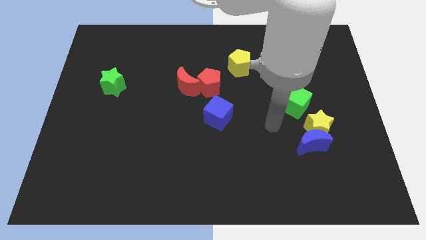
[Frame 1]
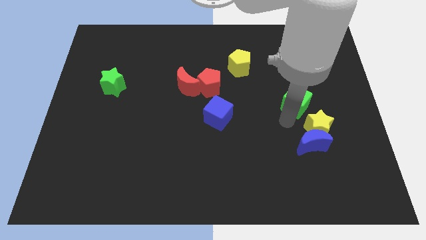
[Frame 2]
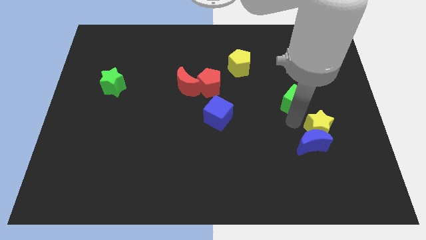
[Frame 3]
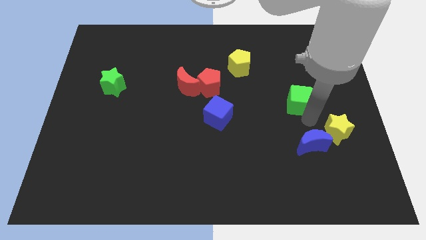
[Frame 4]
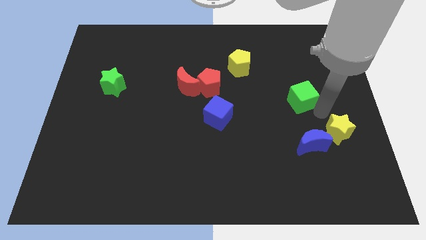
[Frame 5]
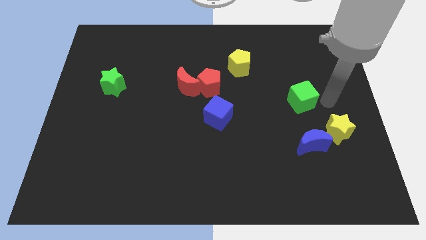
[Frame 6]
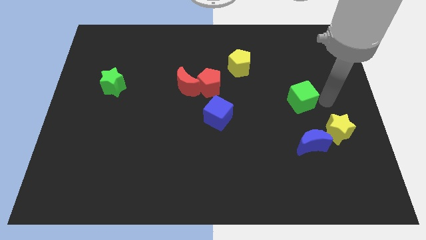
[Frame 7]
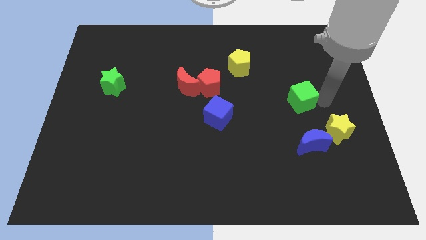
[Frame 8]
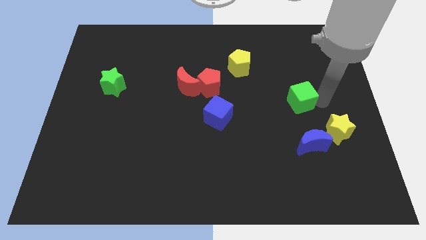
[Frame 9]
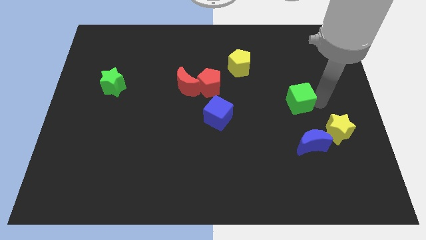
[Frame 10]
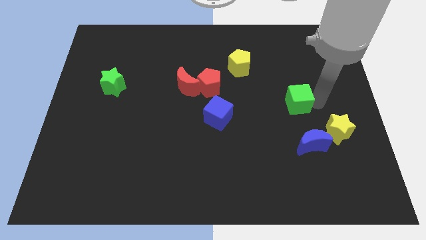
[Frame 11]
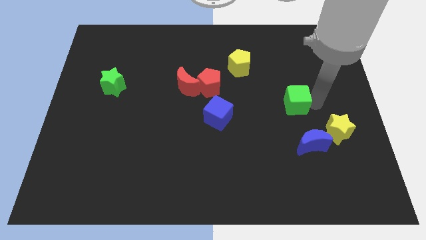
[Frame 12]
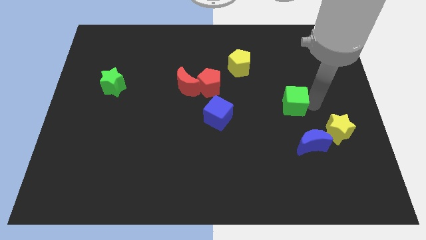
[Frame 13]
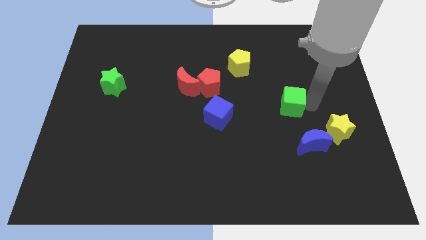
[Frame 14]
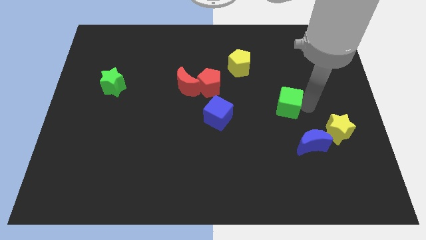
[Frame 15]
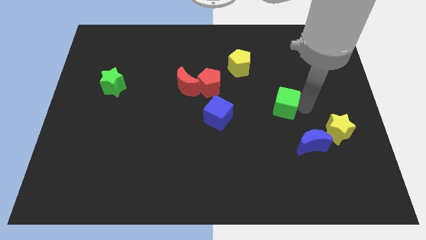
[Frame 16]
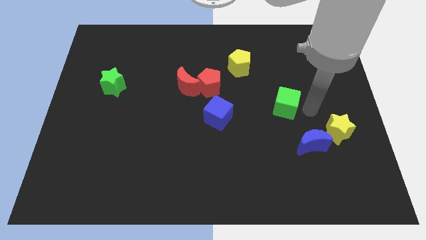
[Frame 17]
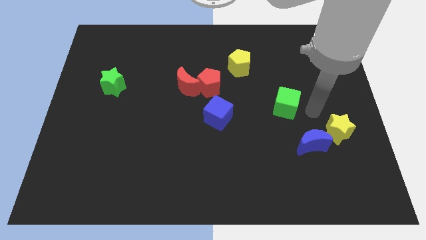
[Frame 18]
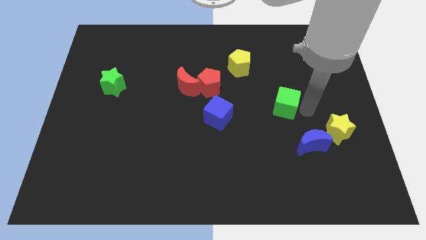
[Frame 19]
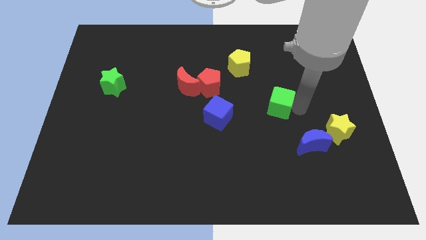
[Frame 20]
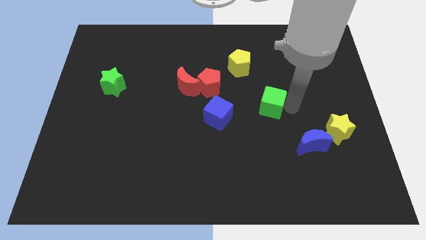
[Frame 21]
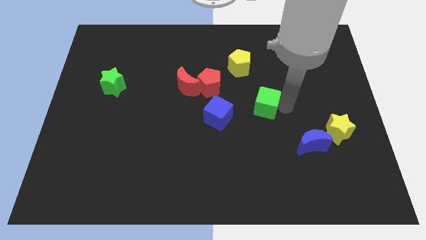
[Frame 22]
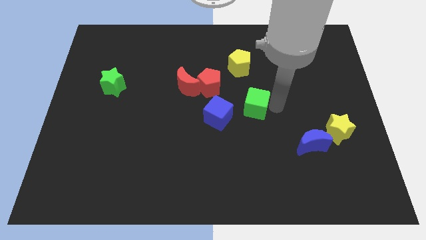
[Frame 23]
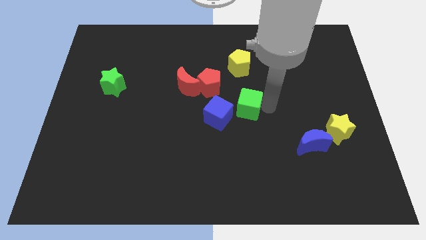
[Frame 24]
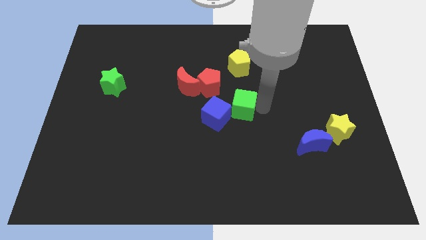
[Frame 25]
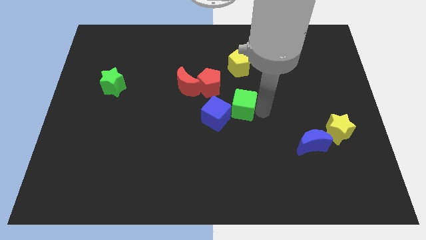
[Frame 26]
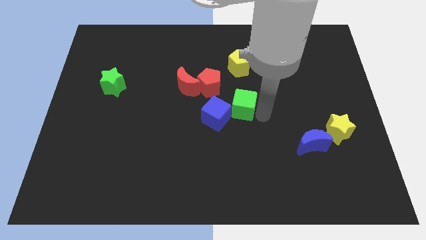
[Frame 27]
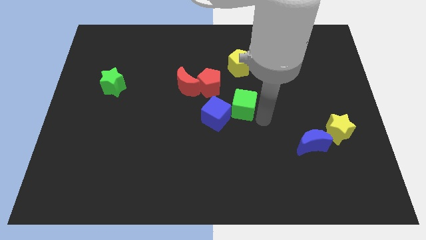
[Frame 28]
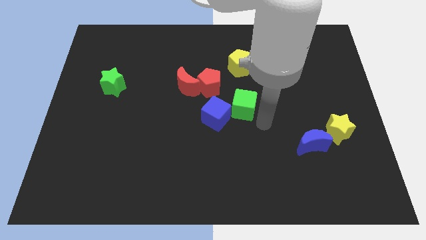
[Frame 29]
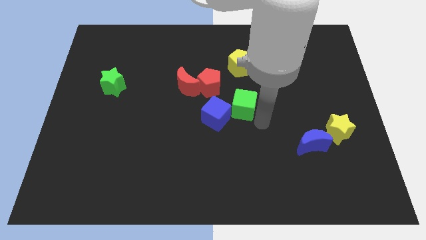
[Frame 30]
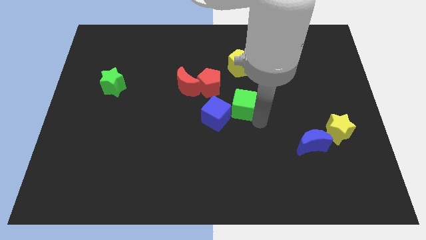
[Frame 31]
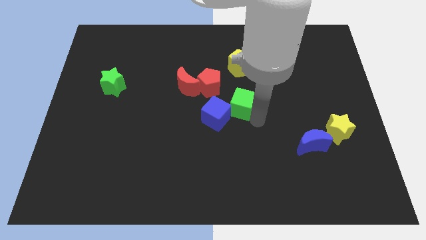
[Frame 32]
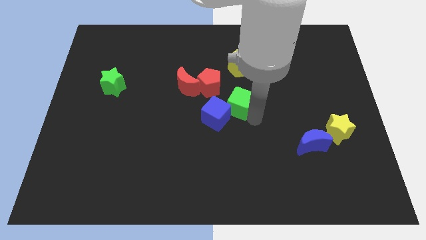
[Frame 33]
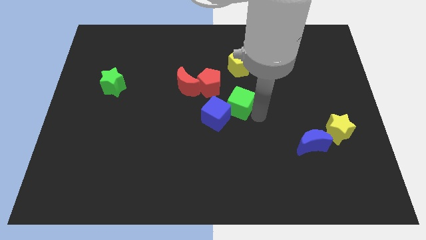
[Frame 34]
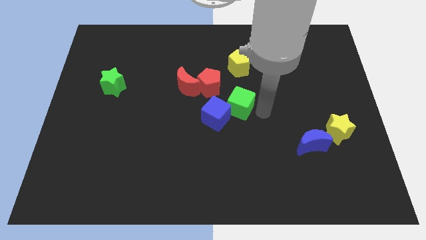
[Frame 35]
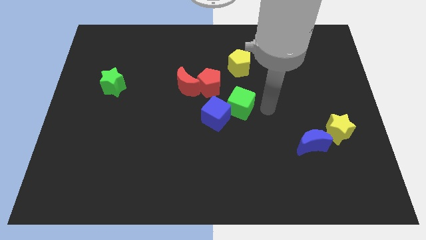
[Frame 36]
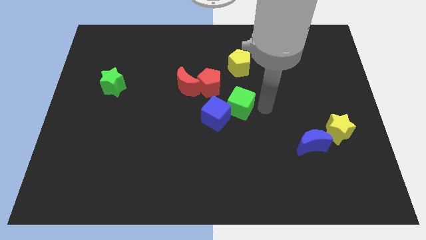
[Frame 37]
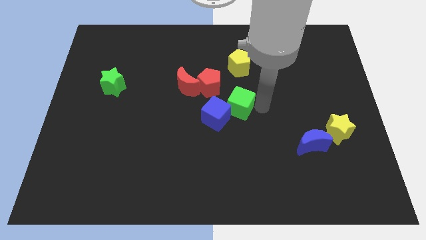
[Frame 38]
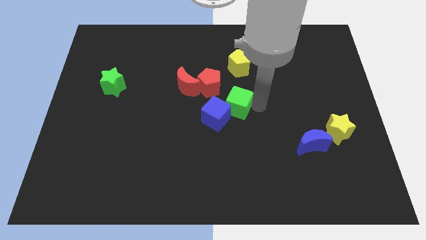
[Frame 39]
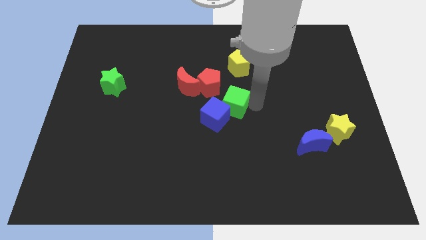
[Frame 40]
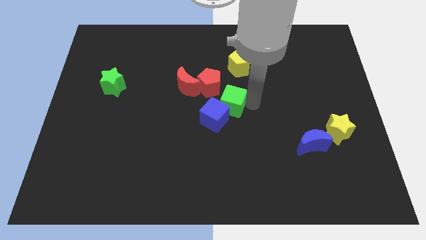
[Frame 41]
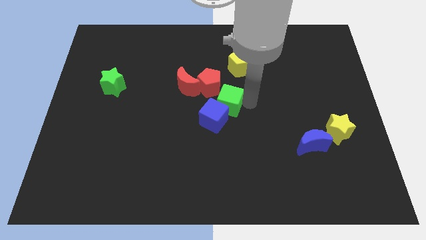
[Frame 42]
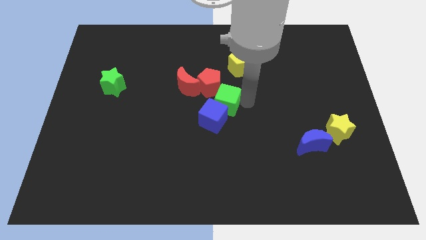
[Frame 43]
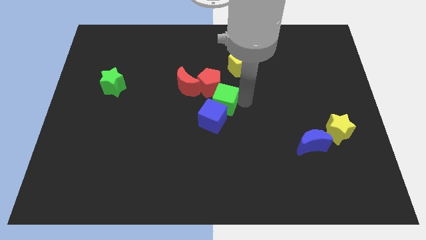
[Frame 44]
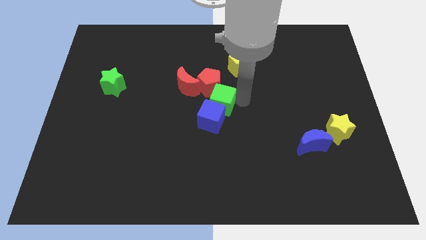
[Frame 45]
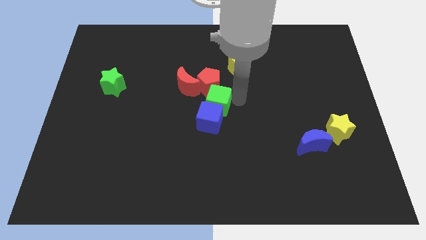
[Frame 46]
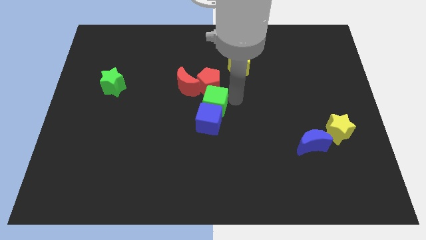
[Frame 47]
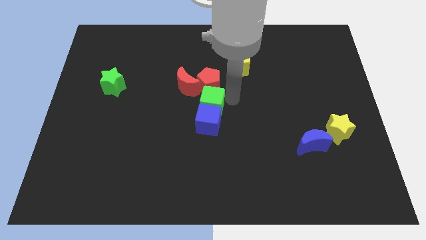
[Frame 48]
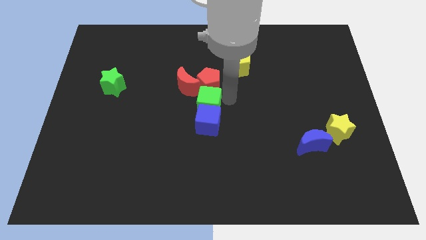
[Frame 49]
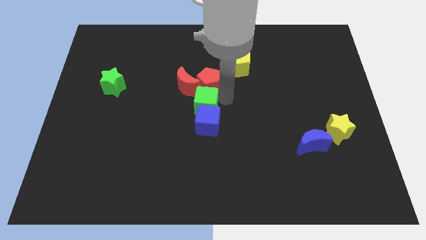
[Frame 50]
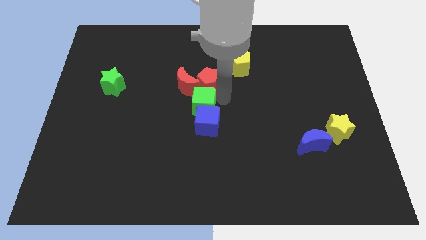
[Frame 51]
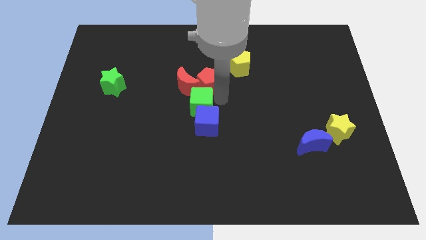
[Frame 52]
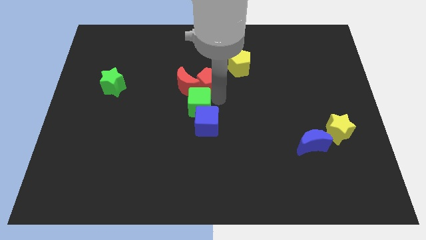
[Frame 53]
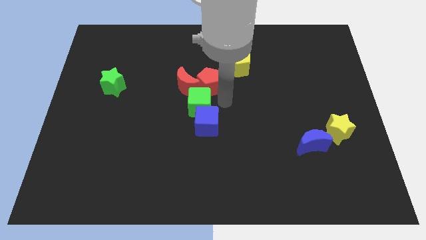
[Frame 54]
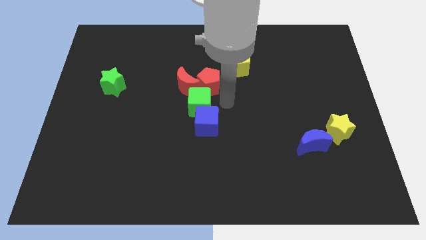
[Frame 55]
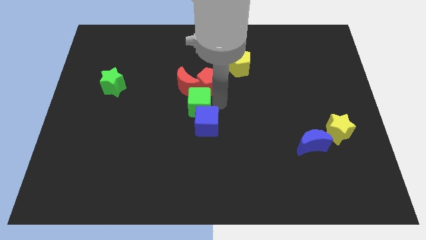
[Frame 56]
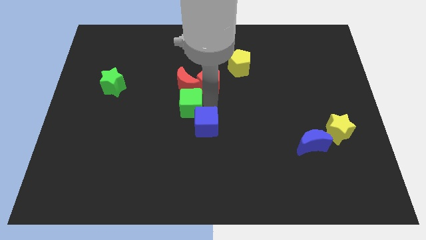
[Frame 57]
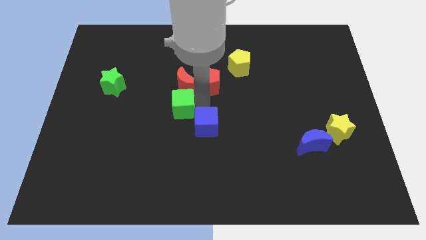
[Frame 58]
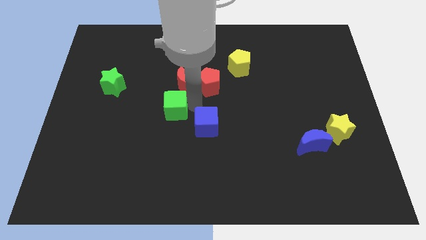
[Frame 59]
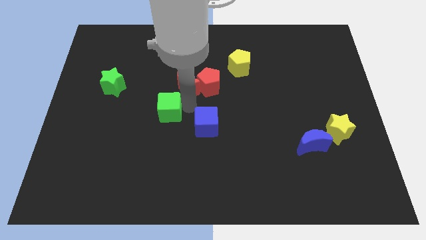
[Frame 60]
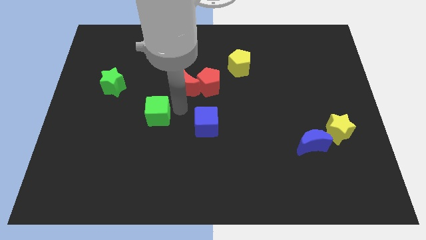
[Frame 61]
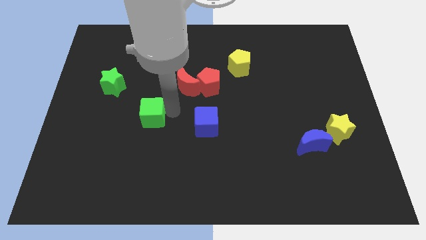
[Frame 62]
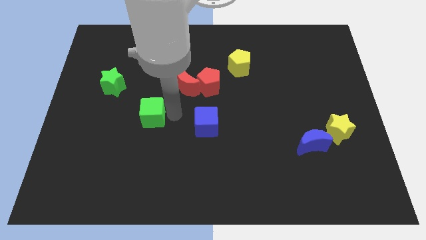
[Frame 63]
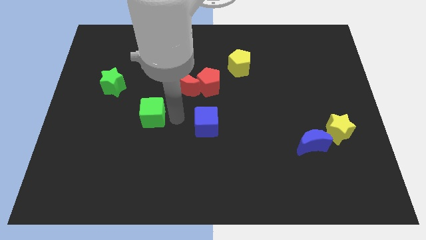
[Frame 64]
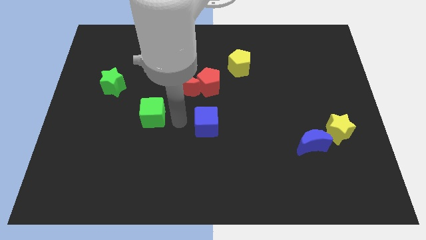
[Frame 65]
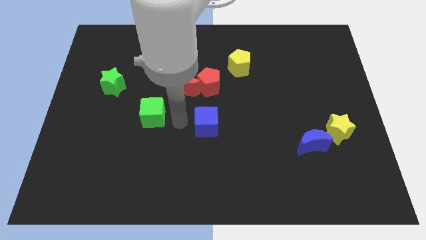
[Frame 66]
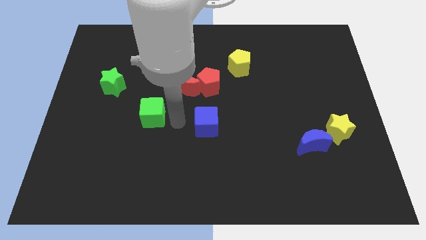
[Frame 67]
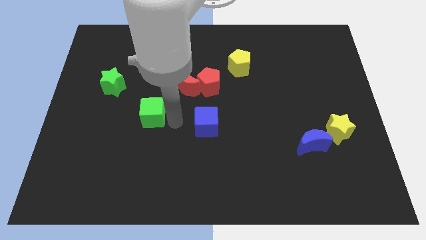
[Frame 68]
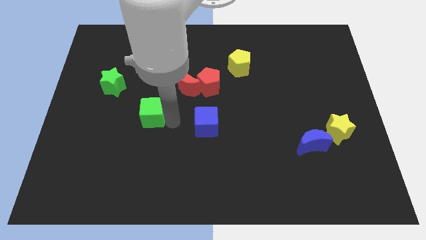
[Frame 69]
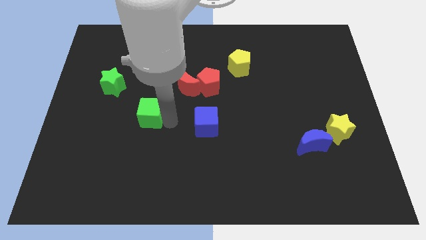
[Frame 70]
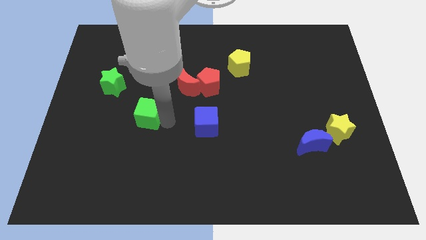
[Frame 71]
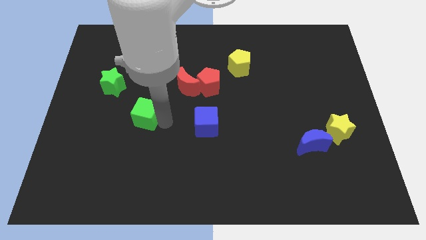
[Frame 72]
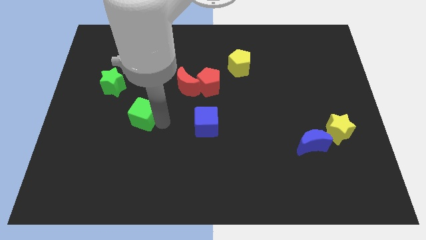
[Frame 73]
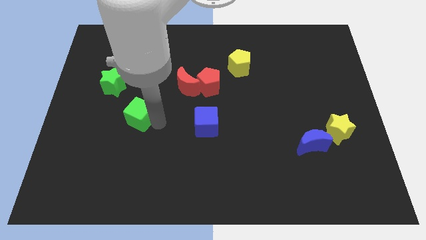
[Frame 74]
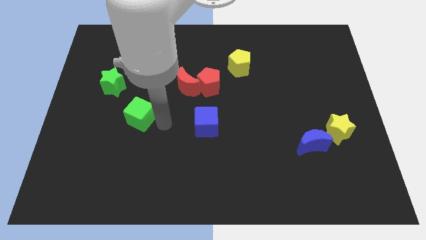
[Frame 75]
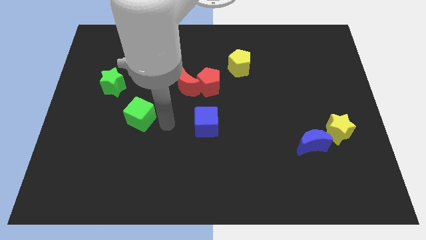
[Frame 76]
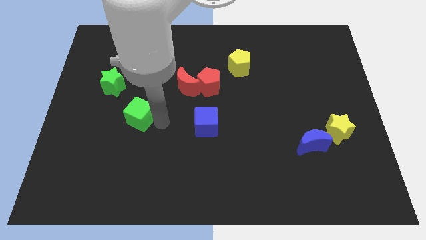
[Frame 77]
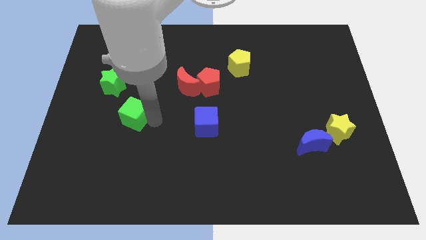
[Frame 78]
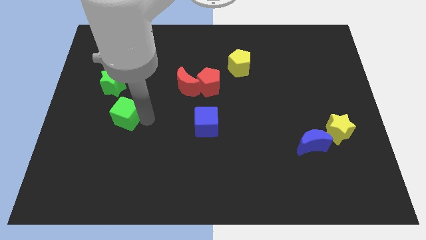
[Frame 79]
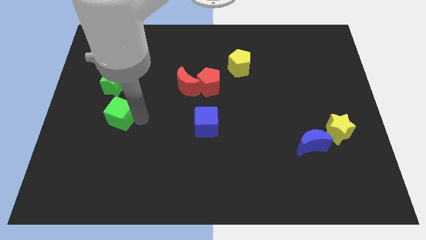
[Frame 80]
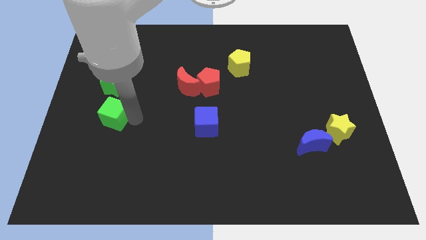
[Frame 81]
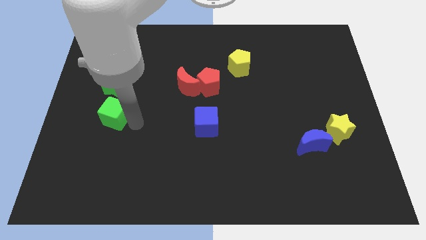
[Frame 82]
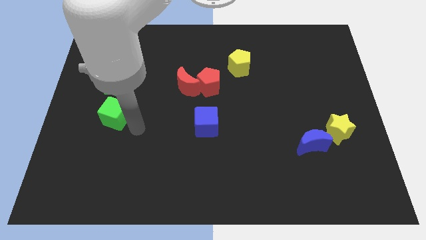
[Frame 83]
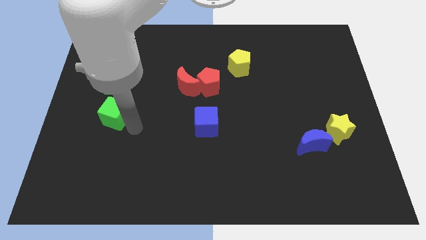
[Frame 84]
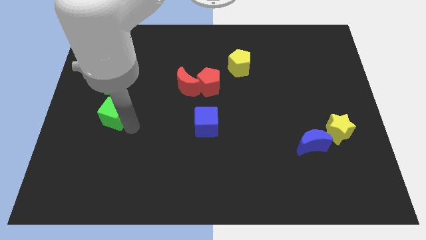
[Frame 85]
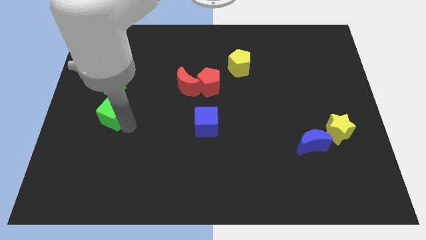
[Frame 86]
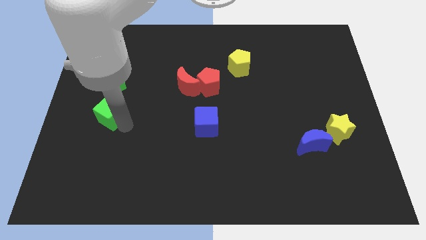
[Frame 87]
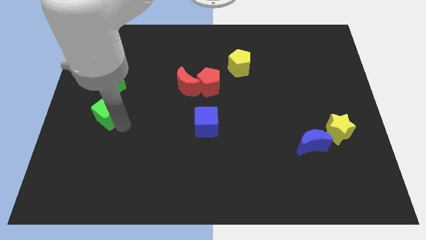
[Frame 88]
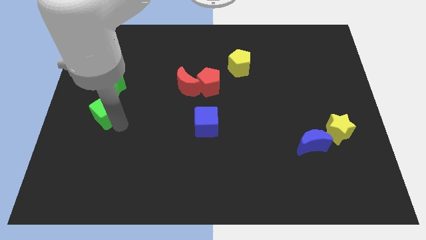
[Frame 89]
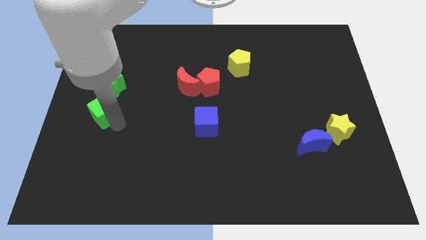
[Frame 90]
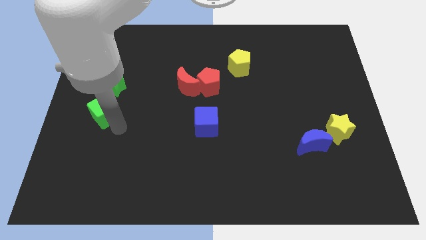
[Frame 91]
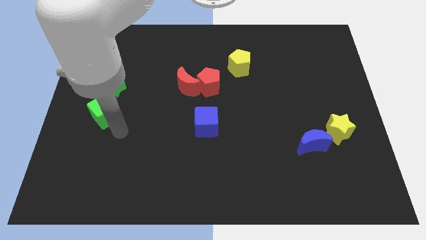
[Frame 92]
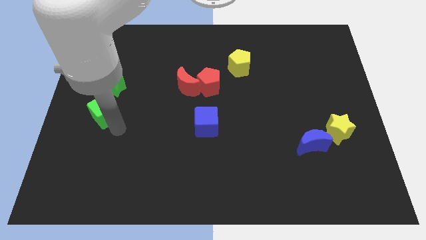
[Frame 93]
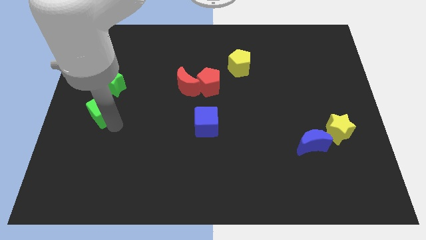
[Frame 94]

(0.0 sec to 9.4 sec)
put the green cube to the center left
